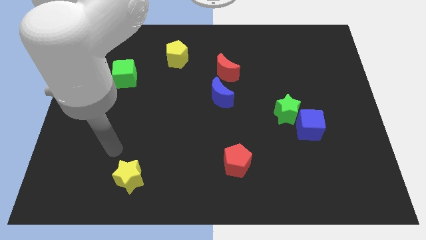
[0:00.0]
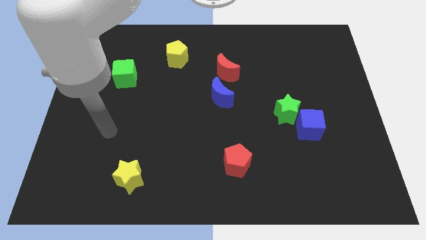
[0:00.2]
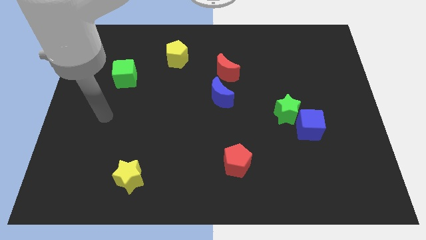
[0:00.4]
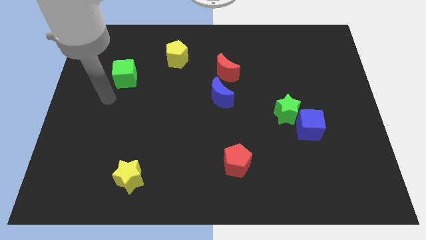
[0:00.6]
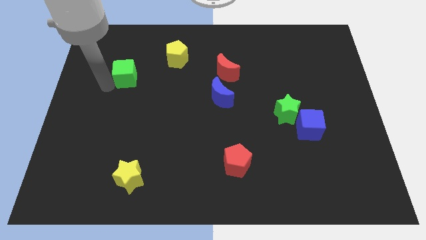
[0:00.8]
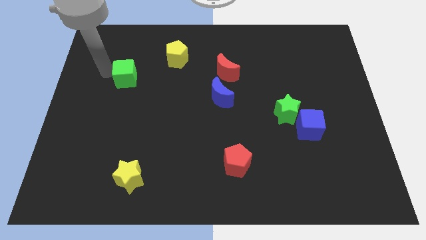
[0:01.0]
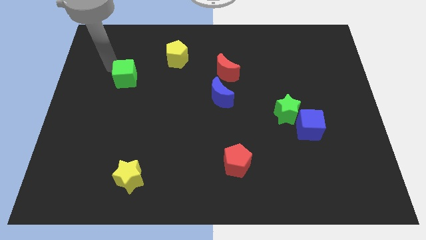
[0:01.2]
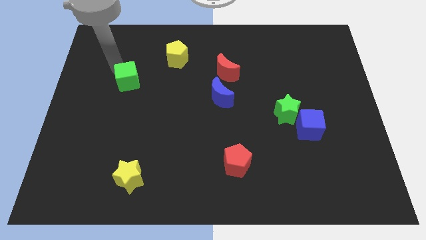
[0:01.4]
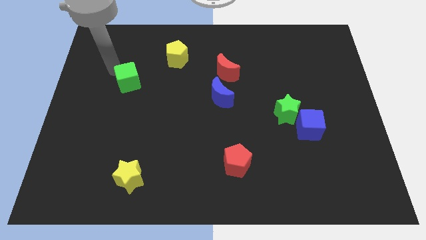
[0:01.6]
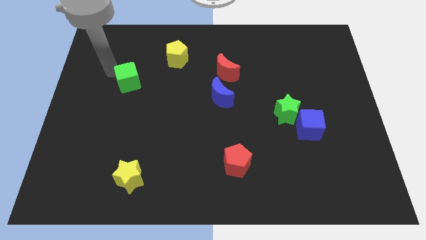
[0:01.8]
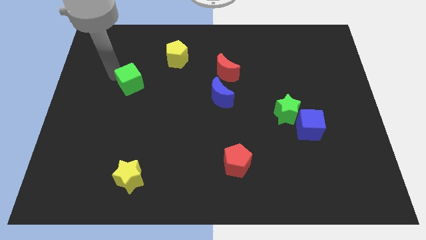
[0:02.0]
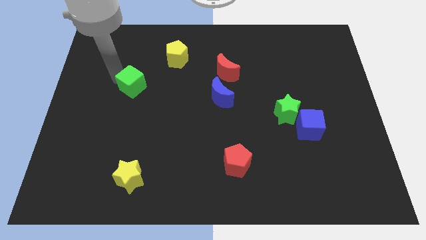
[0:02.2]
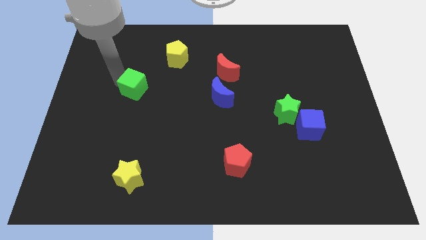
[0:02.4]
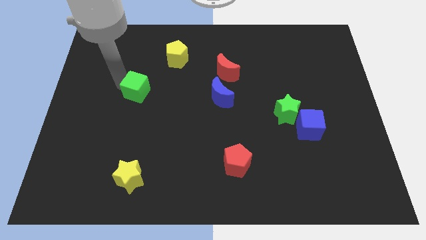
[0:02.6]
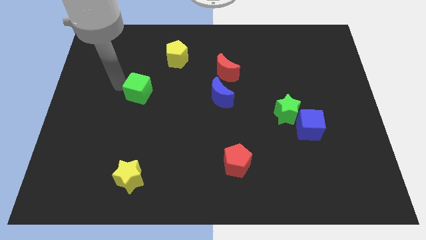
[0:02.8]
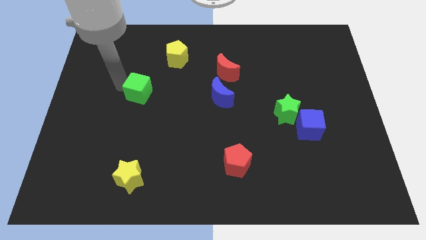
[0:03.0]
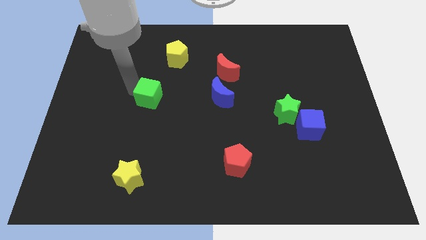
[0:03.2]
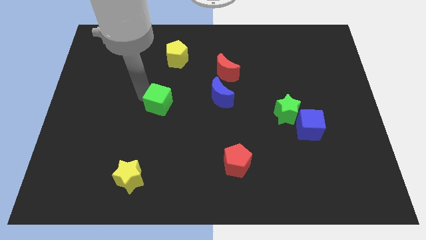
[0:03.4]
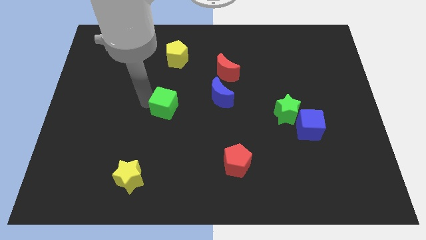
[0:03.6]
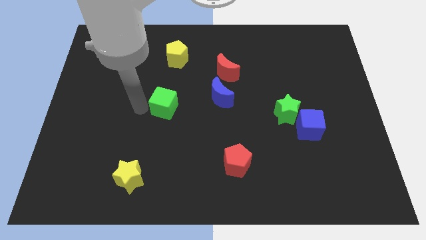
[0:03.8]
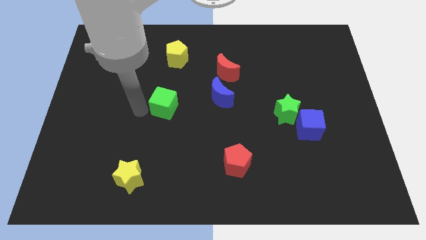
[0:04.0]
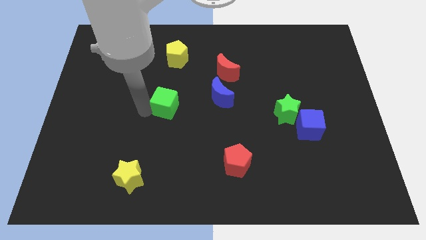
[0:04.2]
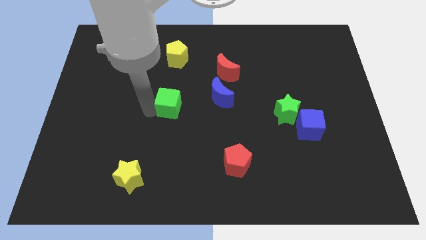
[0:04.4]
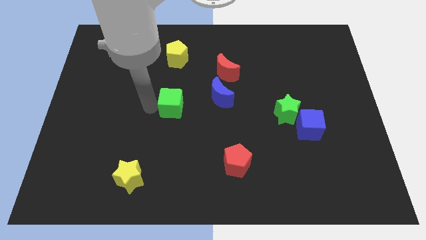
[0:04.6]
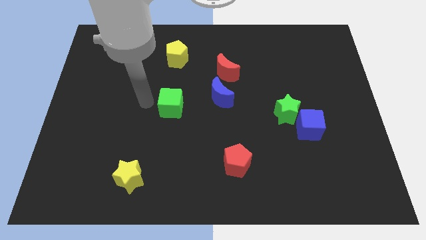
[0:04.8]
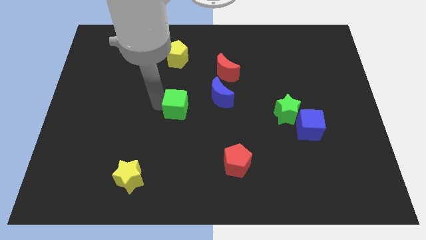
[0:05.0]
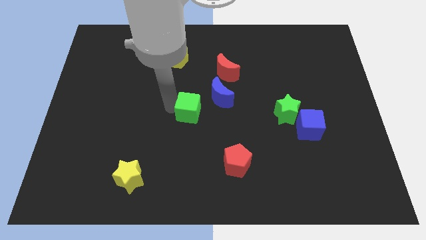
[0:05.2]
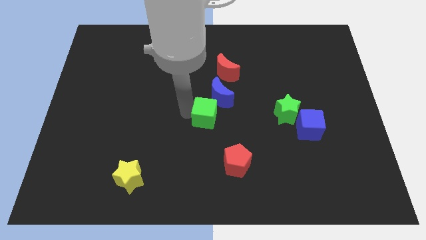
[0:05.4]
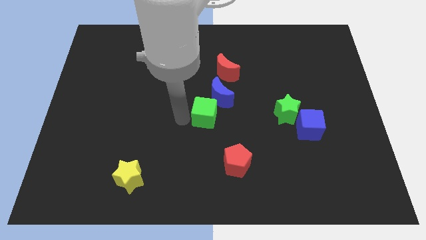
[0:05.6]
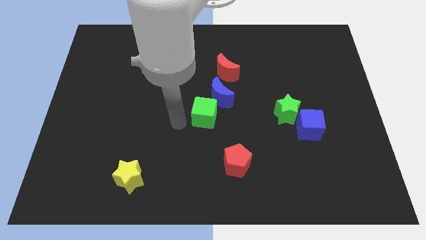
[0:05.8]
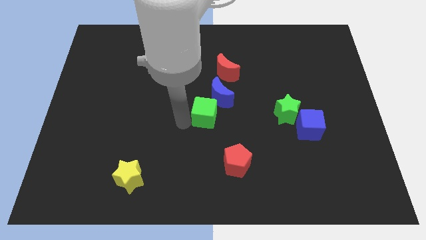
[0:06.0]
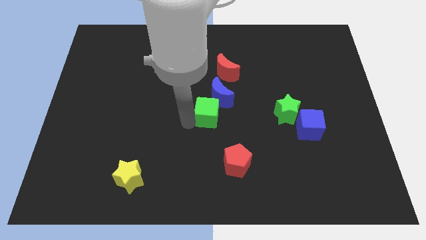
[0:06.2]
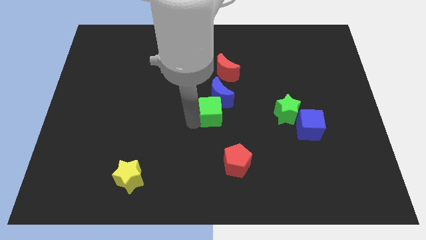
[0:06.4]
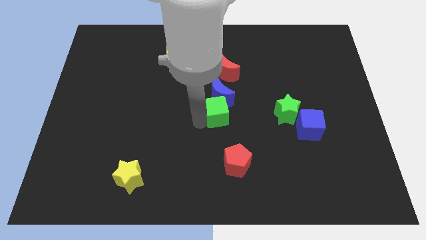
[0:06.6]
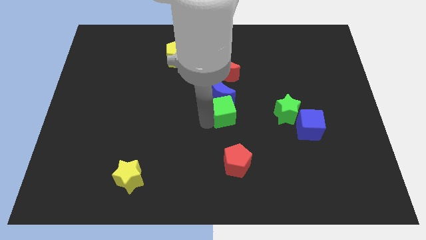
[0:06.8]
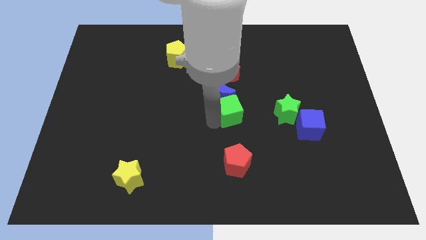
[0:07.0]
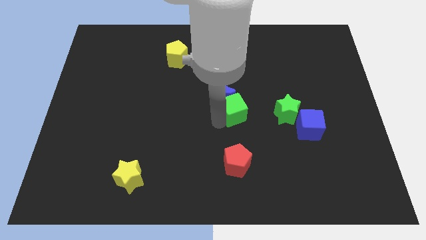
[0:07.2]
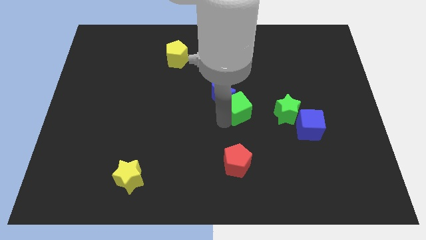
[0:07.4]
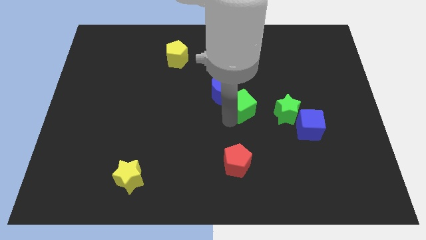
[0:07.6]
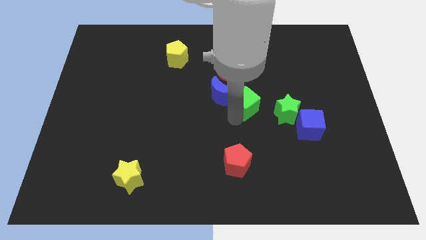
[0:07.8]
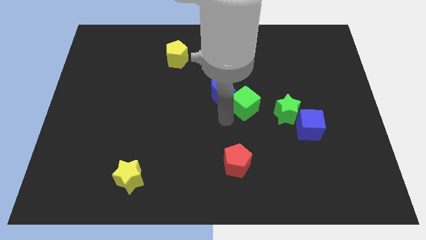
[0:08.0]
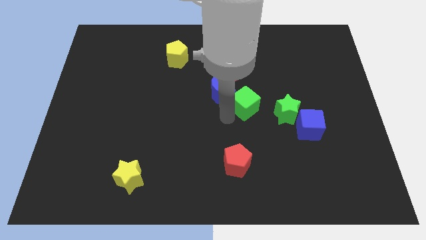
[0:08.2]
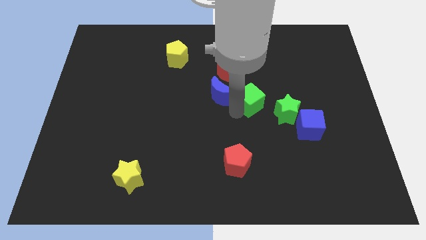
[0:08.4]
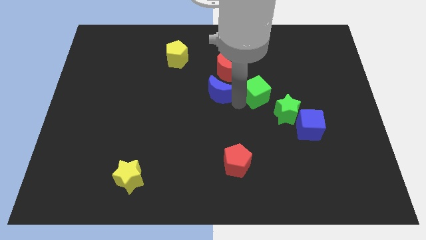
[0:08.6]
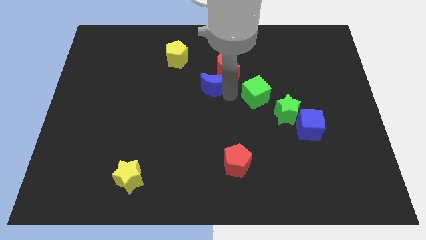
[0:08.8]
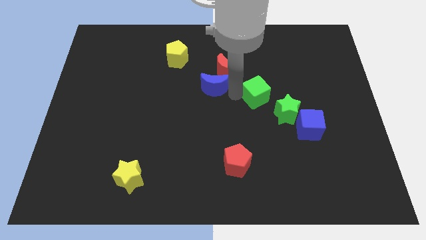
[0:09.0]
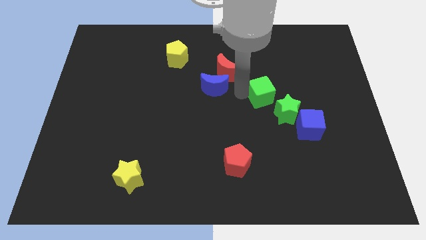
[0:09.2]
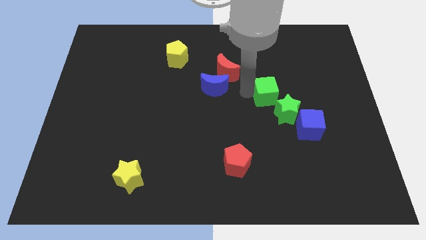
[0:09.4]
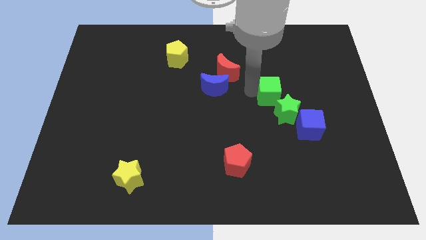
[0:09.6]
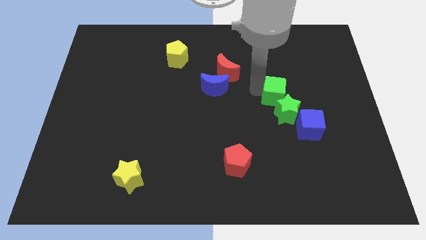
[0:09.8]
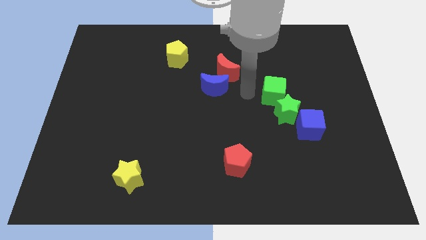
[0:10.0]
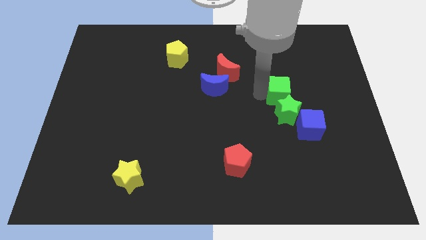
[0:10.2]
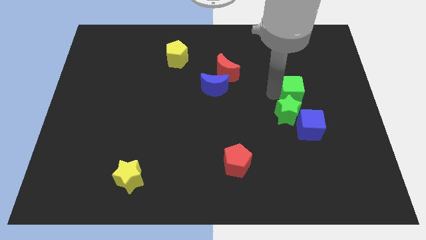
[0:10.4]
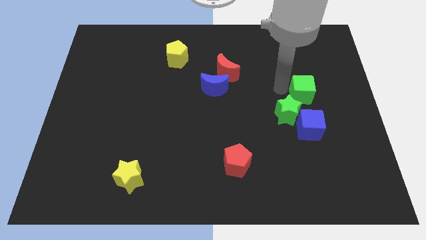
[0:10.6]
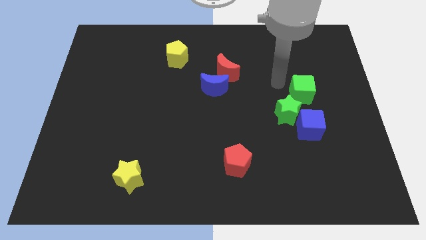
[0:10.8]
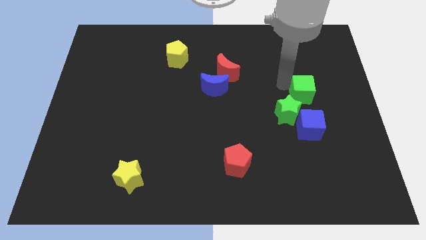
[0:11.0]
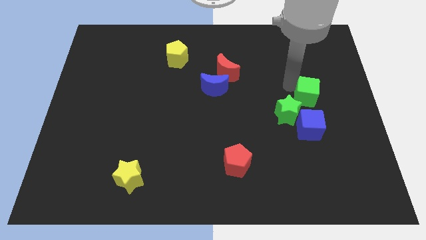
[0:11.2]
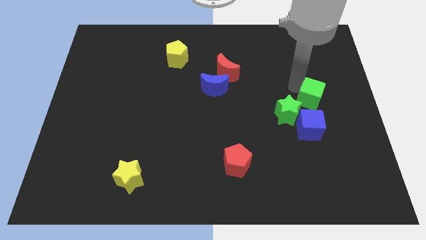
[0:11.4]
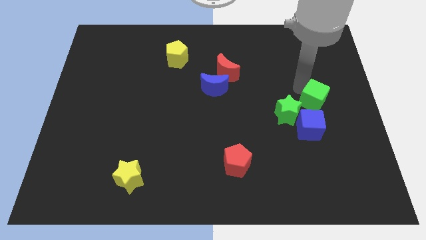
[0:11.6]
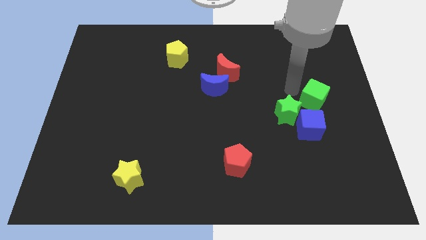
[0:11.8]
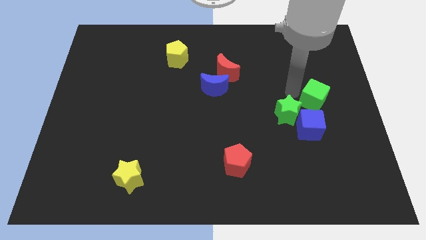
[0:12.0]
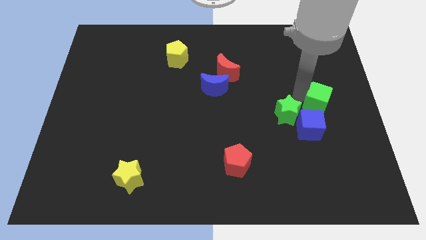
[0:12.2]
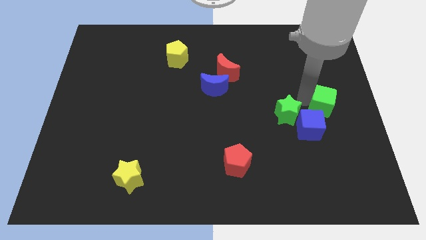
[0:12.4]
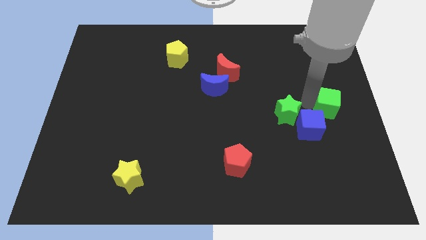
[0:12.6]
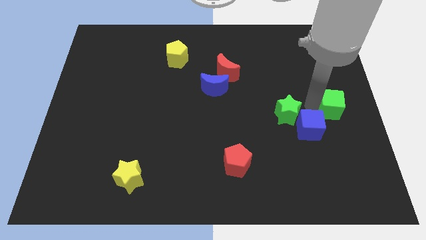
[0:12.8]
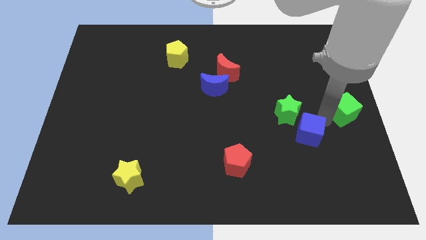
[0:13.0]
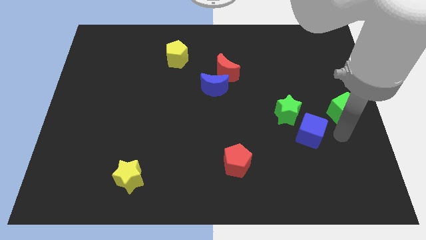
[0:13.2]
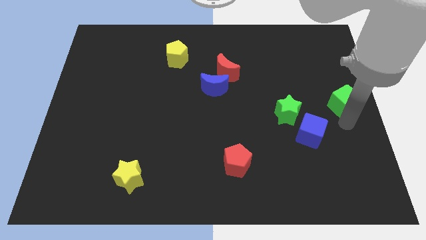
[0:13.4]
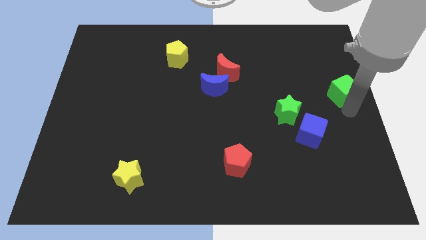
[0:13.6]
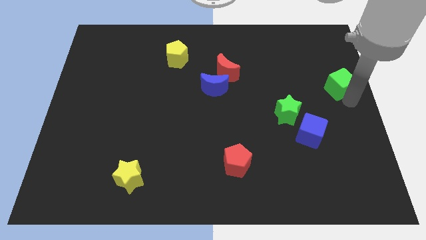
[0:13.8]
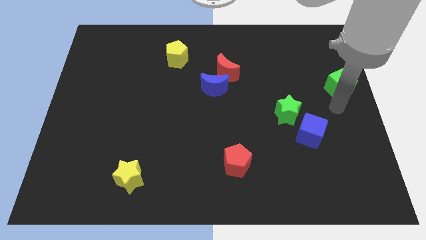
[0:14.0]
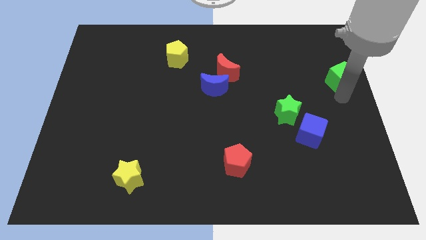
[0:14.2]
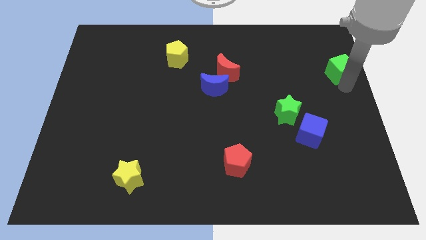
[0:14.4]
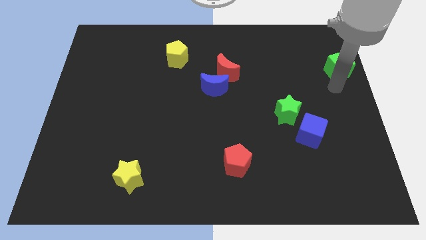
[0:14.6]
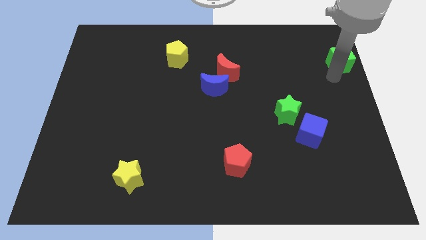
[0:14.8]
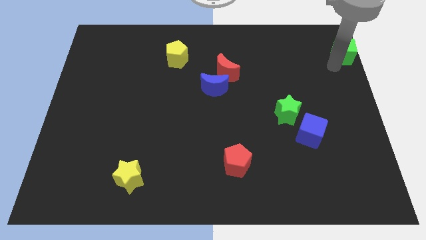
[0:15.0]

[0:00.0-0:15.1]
put the green cube to the upper right corner
